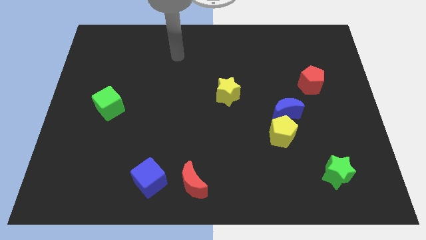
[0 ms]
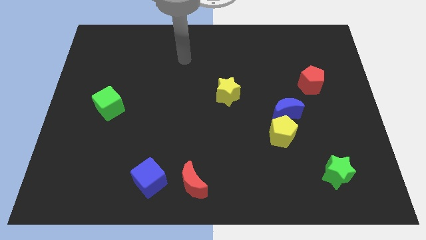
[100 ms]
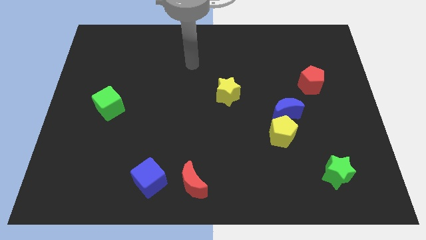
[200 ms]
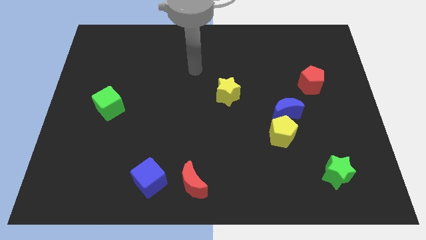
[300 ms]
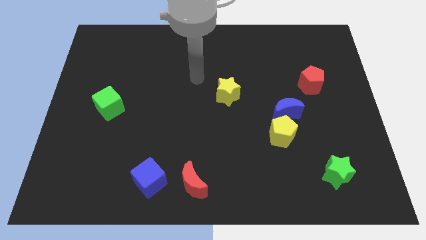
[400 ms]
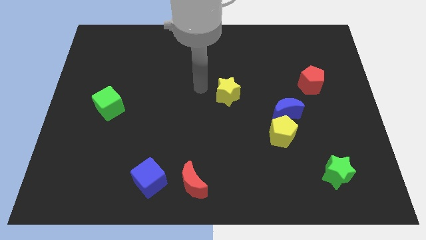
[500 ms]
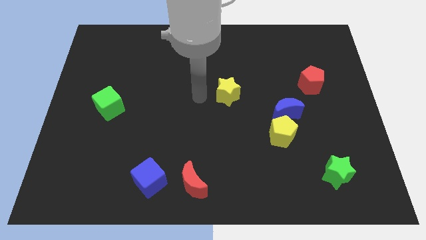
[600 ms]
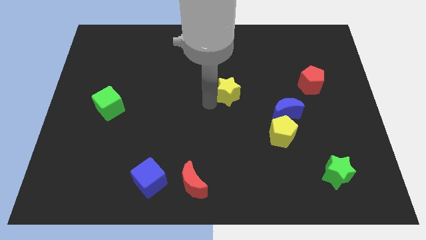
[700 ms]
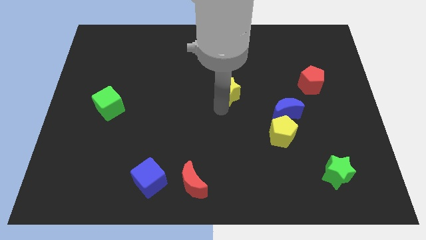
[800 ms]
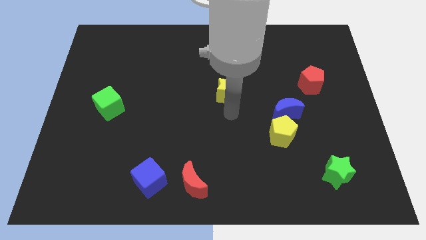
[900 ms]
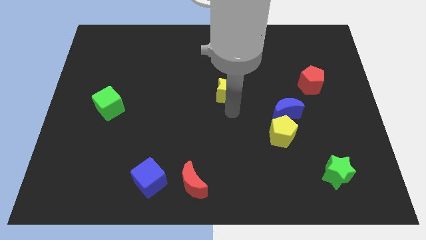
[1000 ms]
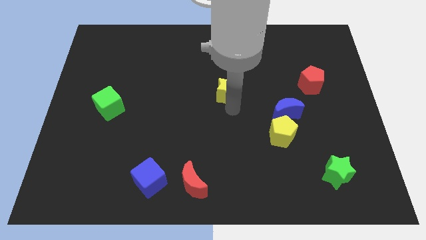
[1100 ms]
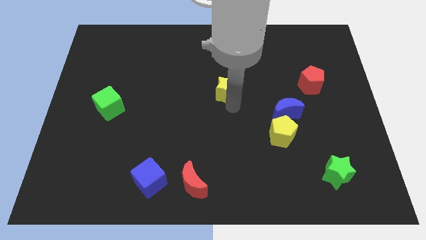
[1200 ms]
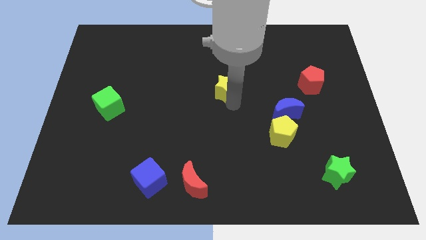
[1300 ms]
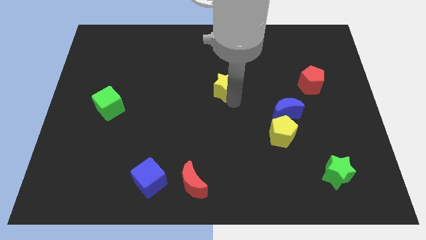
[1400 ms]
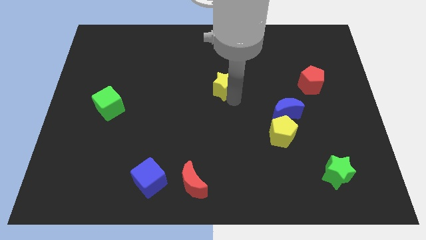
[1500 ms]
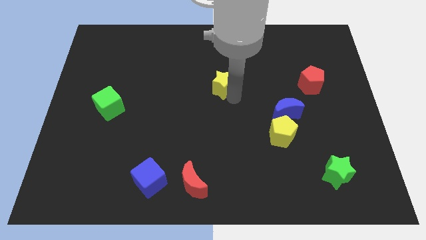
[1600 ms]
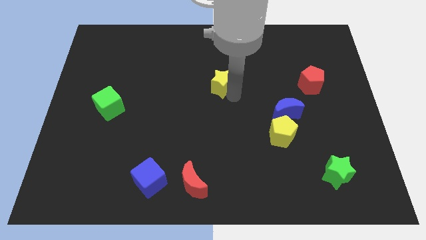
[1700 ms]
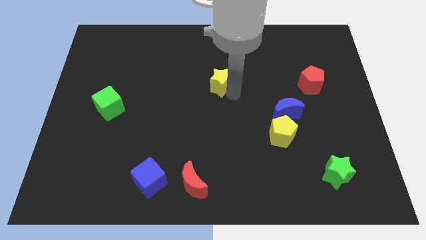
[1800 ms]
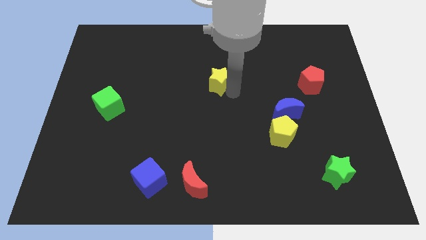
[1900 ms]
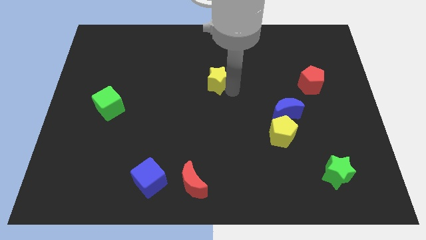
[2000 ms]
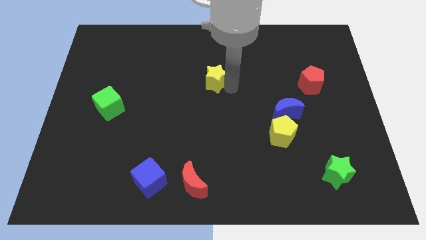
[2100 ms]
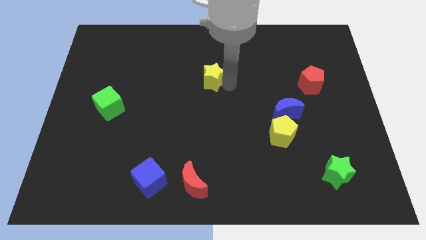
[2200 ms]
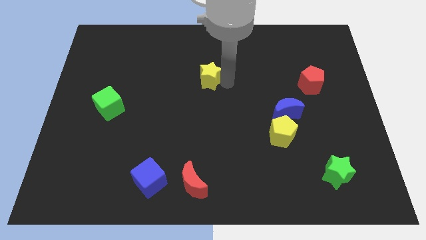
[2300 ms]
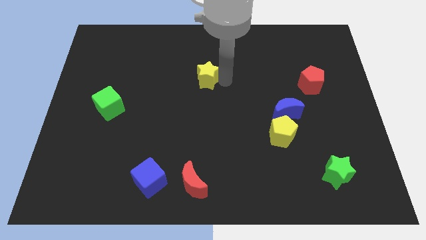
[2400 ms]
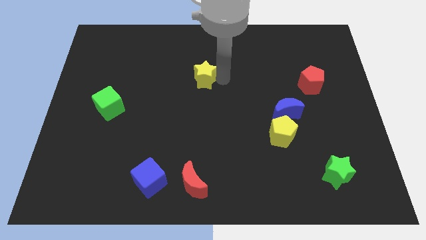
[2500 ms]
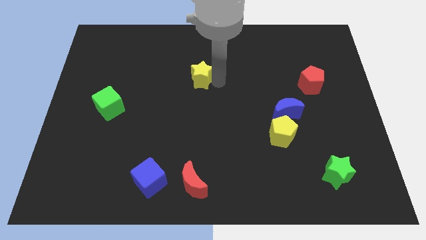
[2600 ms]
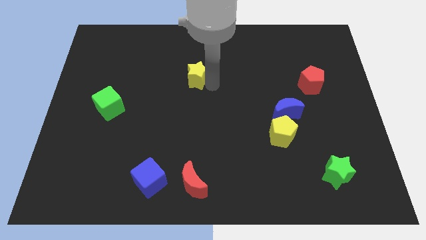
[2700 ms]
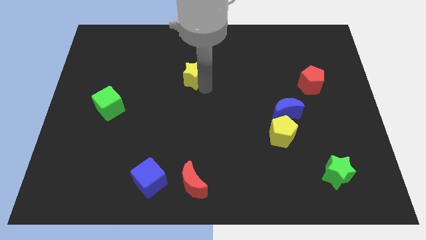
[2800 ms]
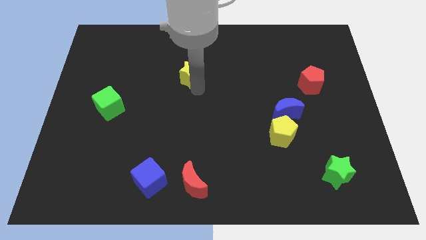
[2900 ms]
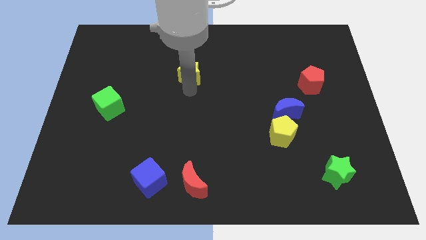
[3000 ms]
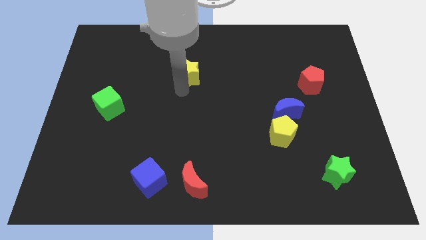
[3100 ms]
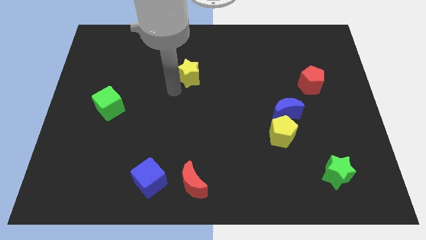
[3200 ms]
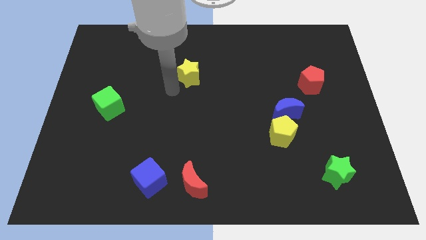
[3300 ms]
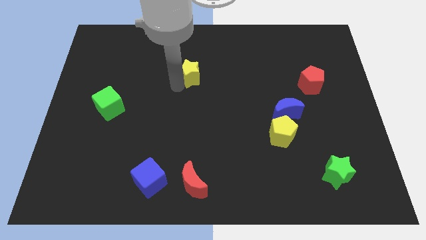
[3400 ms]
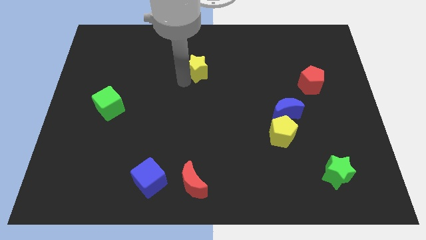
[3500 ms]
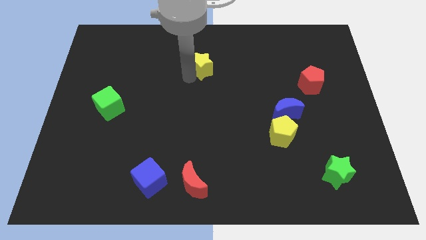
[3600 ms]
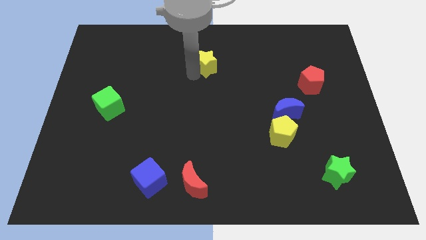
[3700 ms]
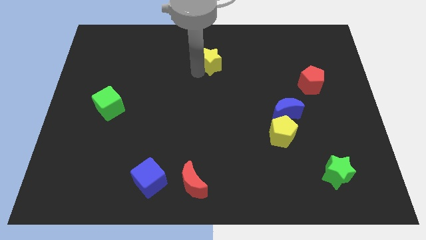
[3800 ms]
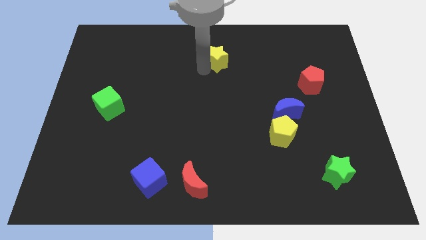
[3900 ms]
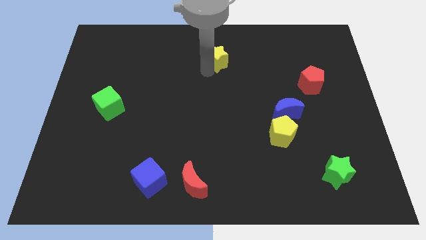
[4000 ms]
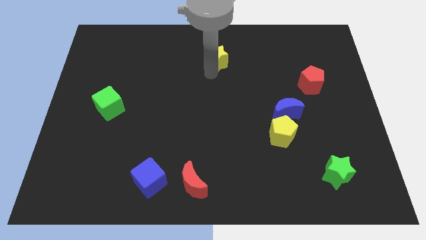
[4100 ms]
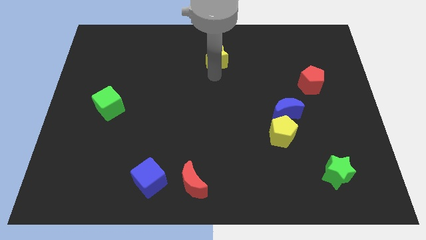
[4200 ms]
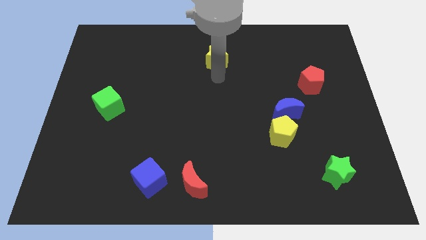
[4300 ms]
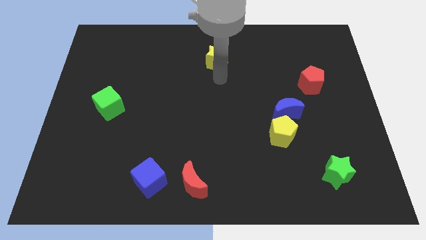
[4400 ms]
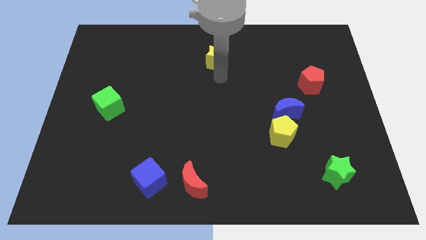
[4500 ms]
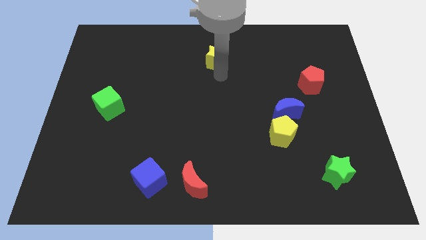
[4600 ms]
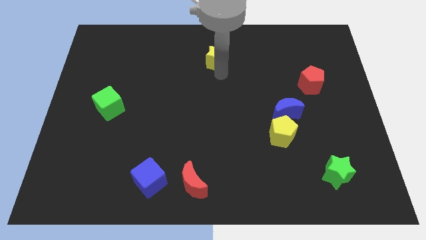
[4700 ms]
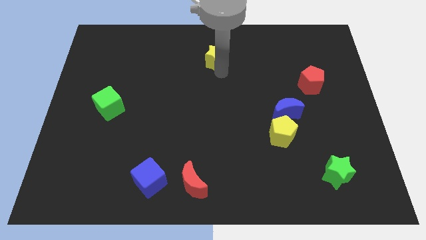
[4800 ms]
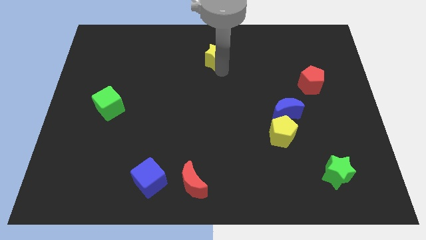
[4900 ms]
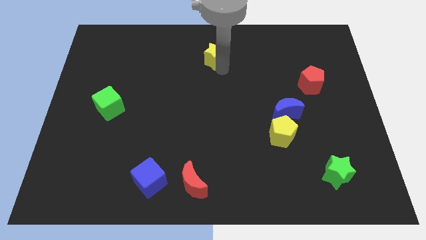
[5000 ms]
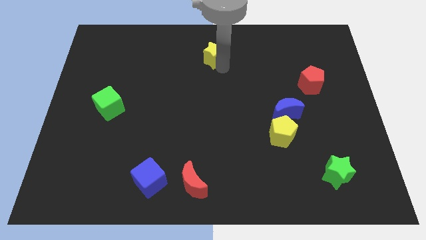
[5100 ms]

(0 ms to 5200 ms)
push the yellow star to the towards your base

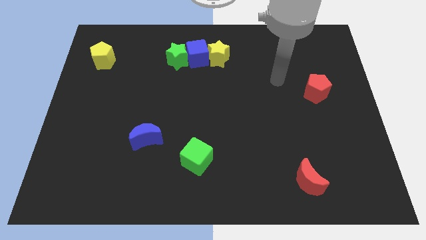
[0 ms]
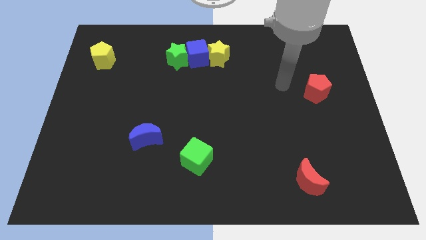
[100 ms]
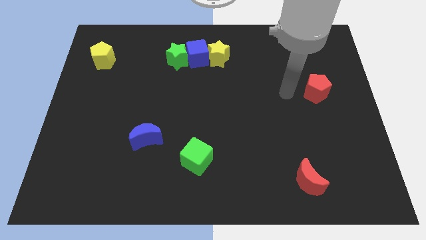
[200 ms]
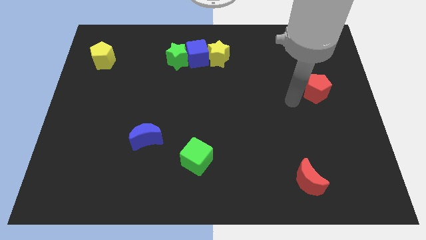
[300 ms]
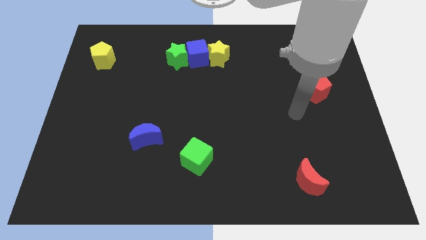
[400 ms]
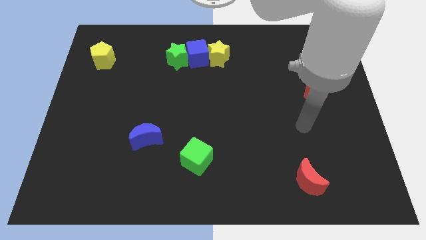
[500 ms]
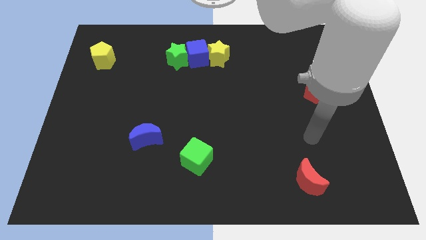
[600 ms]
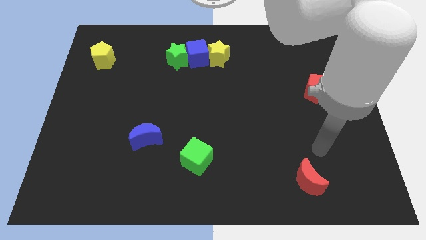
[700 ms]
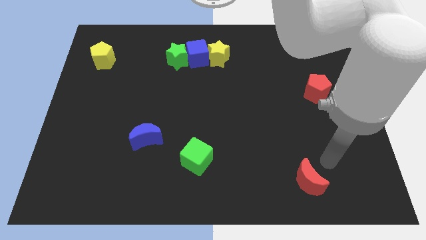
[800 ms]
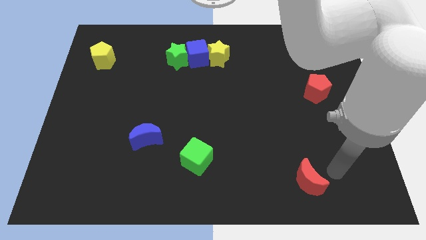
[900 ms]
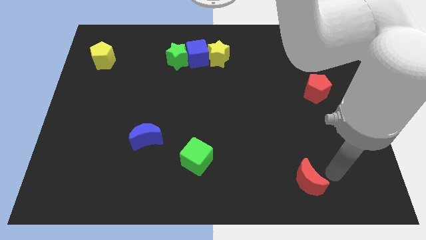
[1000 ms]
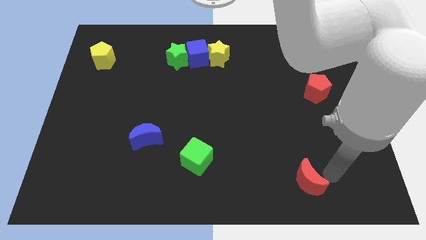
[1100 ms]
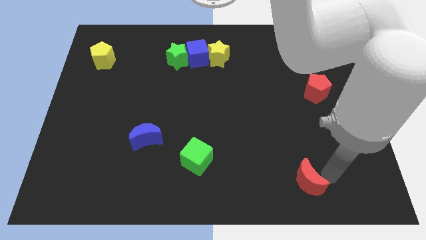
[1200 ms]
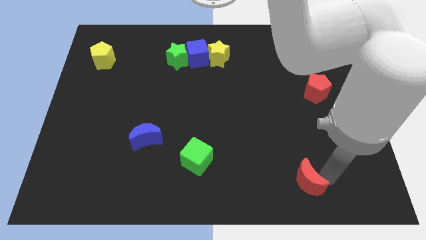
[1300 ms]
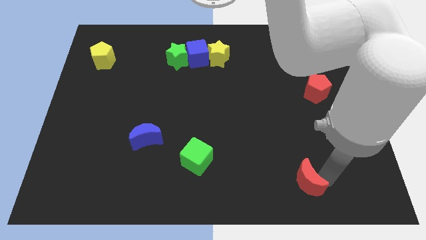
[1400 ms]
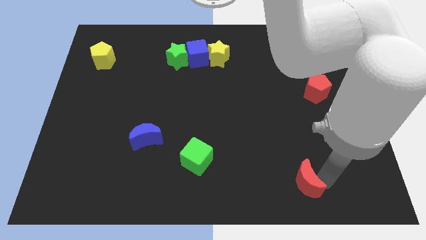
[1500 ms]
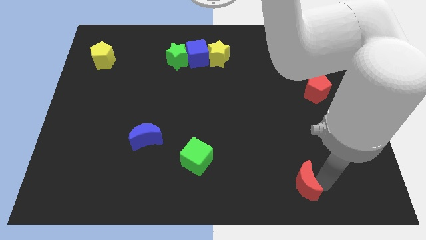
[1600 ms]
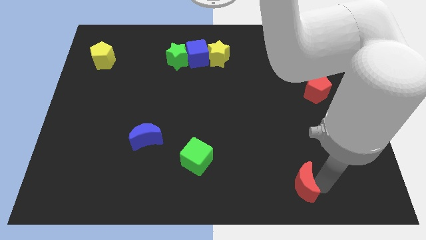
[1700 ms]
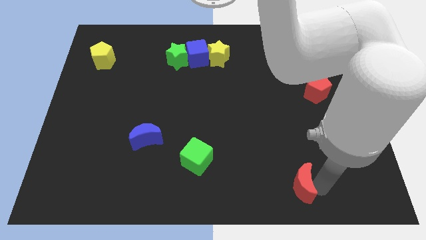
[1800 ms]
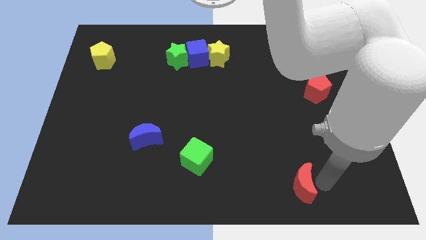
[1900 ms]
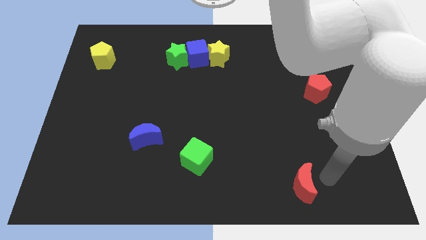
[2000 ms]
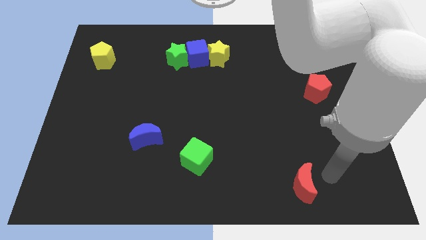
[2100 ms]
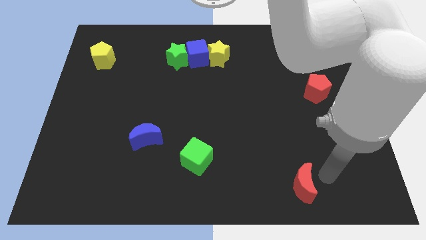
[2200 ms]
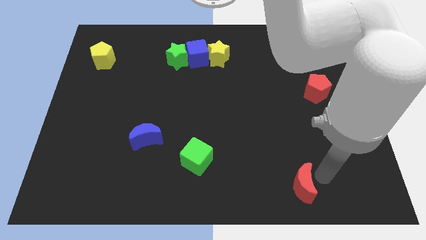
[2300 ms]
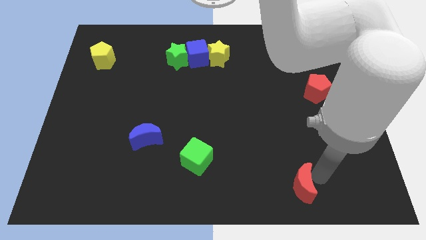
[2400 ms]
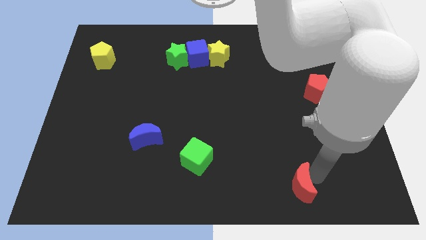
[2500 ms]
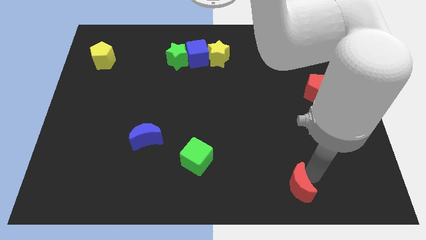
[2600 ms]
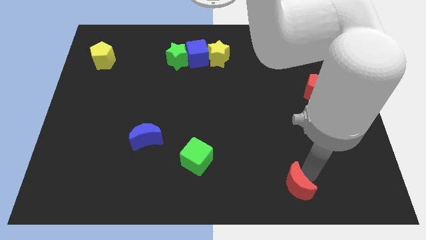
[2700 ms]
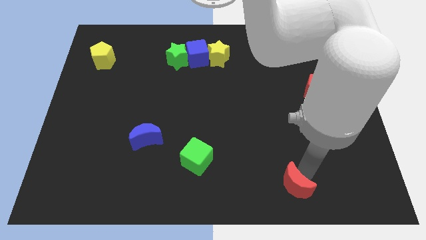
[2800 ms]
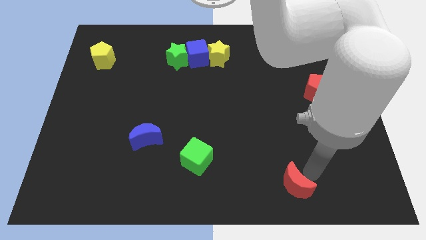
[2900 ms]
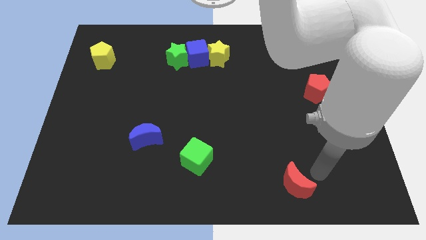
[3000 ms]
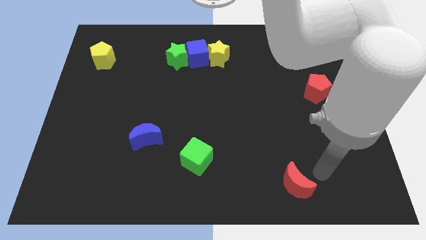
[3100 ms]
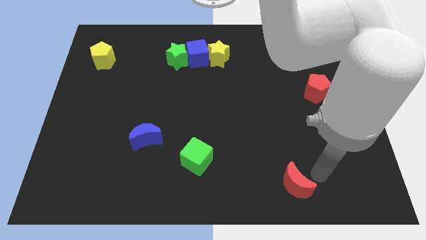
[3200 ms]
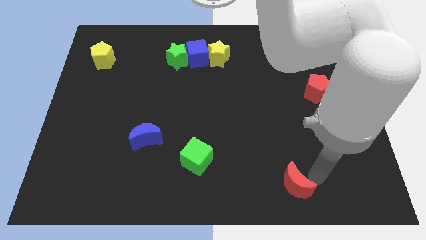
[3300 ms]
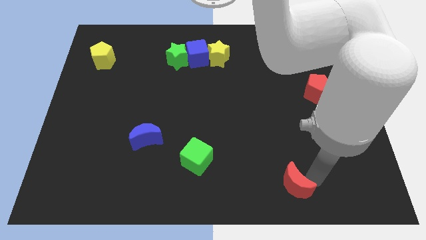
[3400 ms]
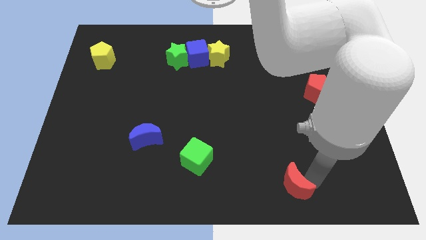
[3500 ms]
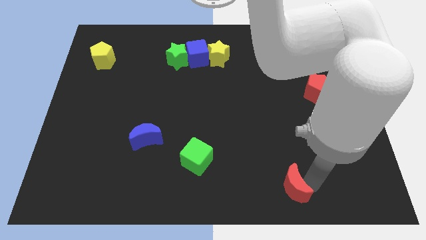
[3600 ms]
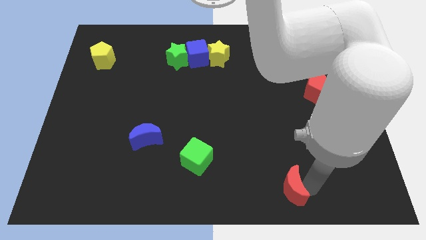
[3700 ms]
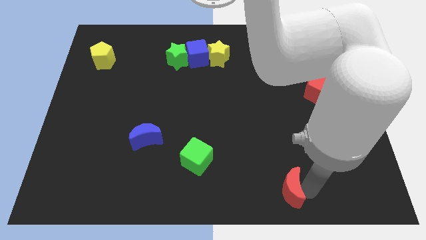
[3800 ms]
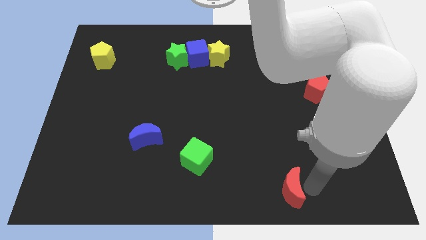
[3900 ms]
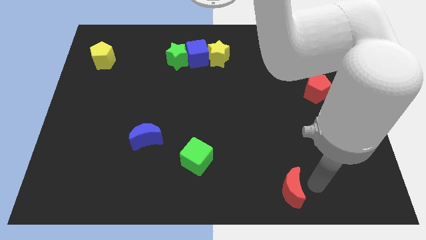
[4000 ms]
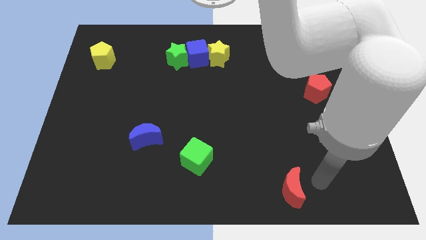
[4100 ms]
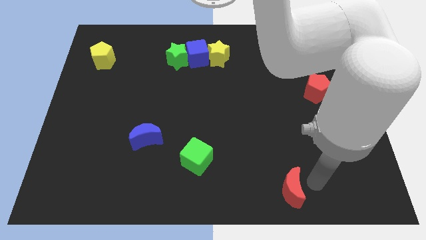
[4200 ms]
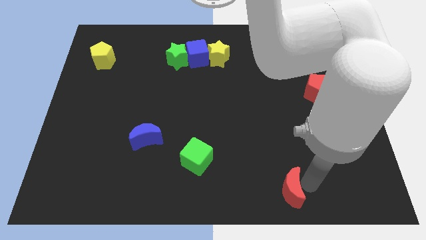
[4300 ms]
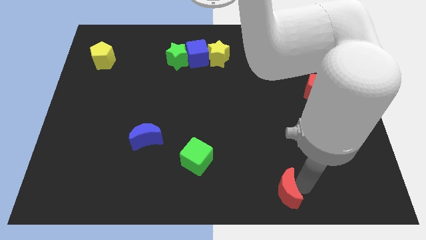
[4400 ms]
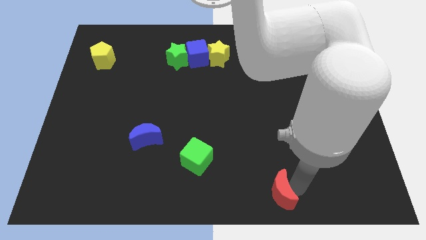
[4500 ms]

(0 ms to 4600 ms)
push the red moon to the bottom side
